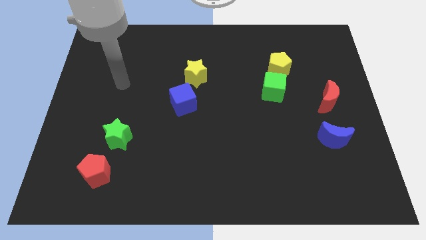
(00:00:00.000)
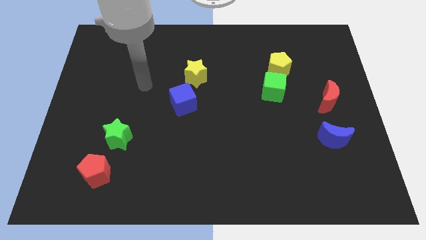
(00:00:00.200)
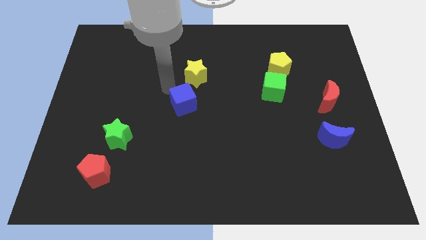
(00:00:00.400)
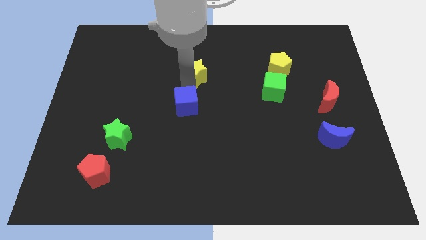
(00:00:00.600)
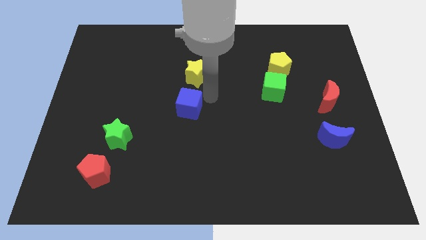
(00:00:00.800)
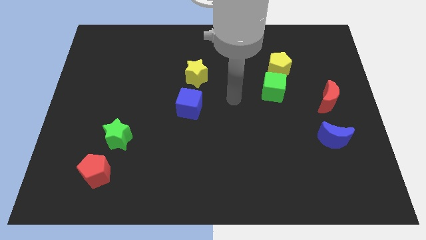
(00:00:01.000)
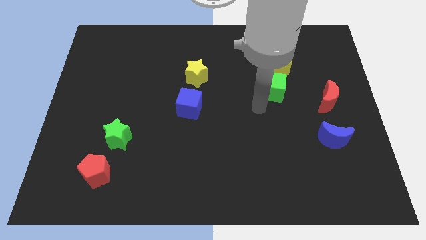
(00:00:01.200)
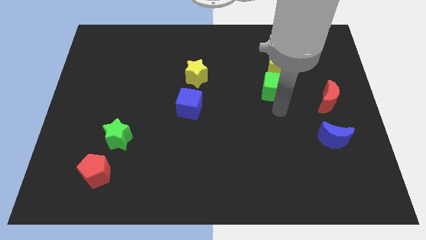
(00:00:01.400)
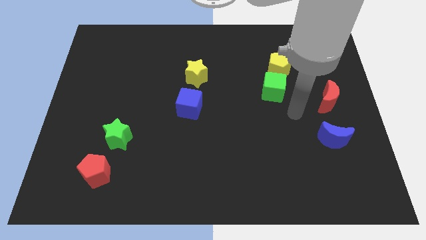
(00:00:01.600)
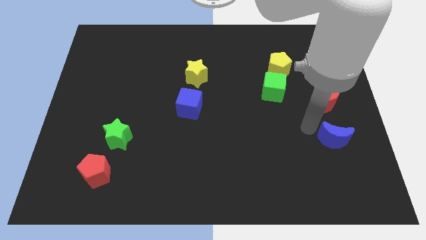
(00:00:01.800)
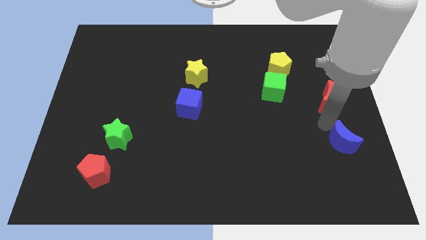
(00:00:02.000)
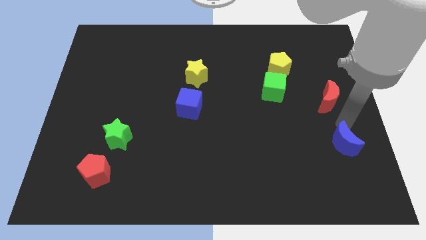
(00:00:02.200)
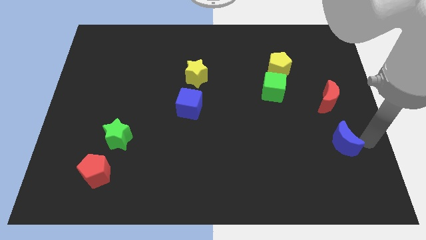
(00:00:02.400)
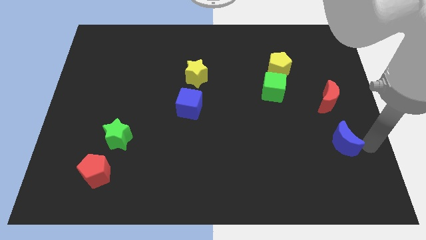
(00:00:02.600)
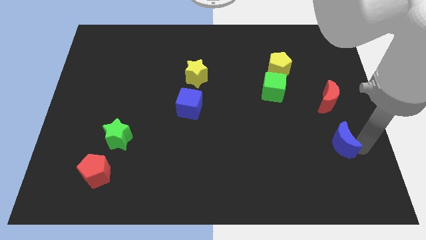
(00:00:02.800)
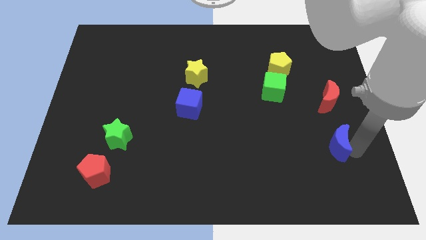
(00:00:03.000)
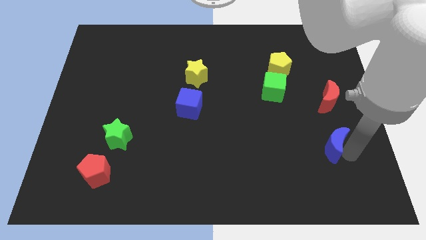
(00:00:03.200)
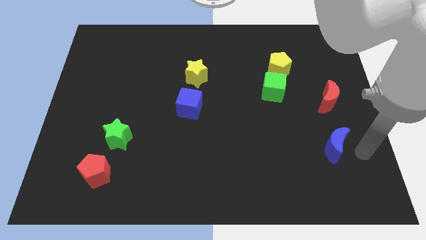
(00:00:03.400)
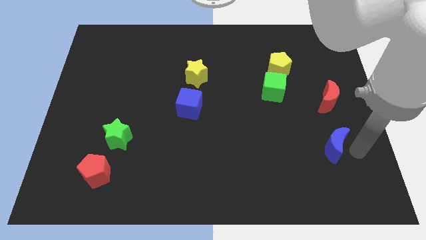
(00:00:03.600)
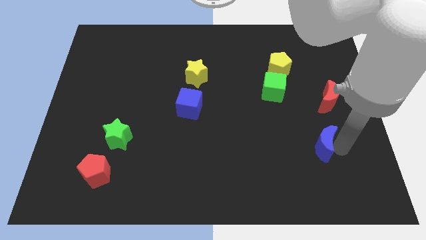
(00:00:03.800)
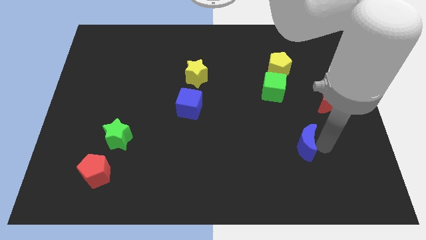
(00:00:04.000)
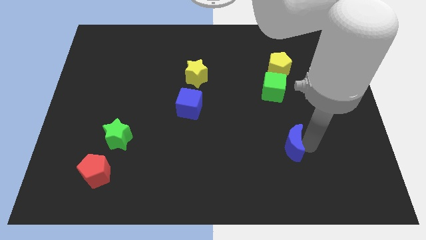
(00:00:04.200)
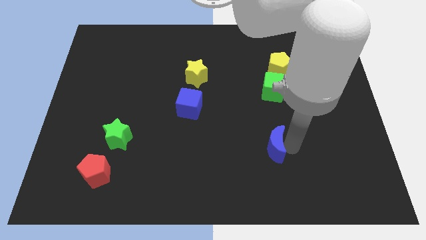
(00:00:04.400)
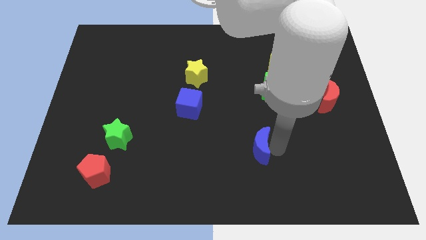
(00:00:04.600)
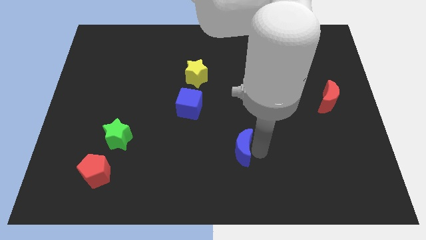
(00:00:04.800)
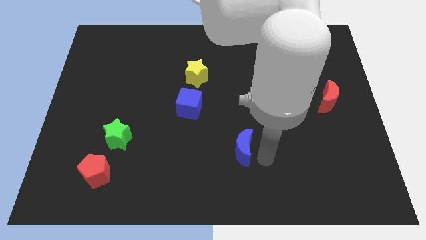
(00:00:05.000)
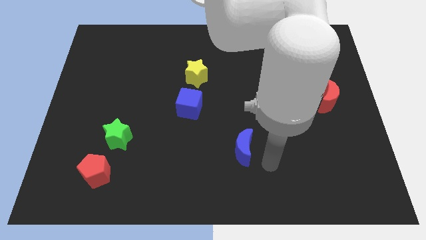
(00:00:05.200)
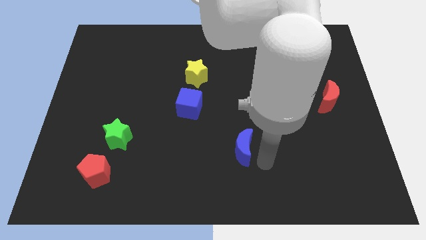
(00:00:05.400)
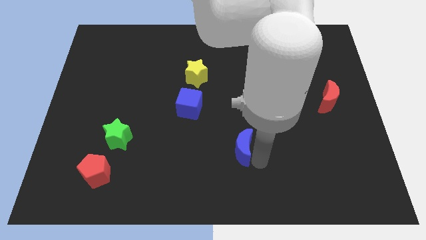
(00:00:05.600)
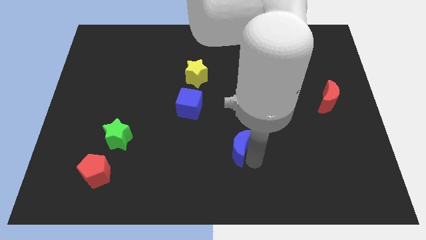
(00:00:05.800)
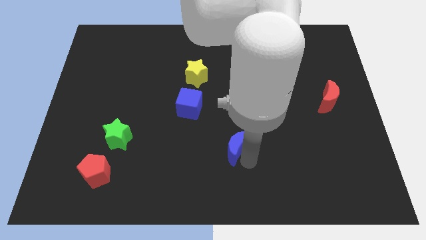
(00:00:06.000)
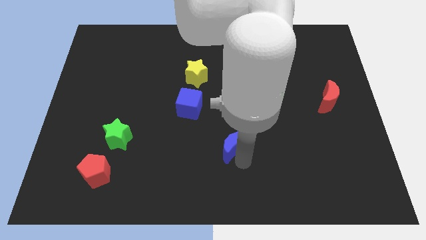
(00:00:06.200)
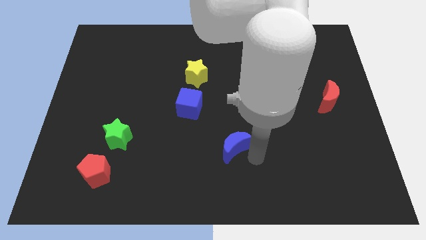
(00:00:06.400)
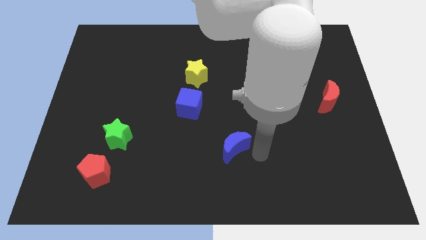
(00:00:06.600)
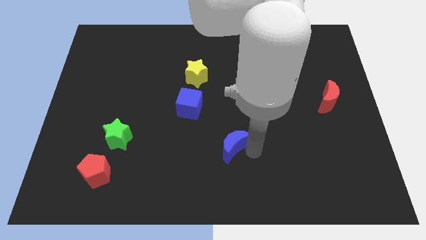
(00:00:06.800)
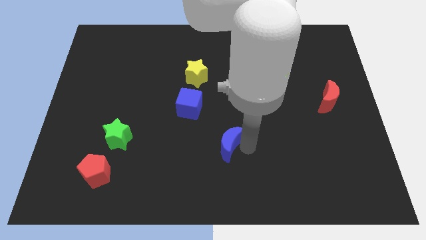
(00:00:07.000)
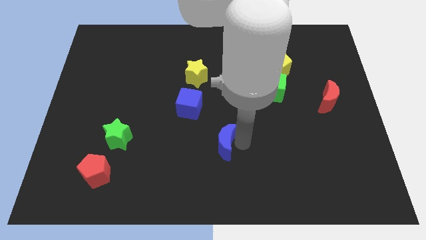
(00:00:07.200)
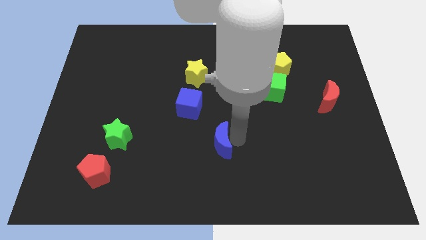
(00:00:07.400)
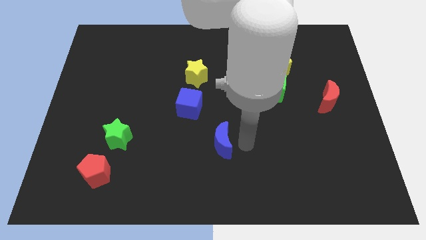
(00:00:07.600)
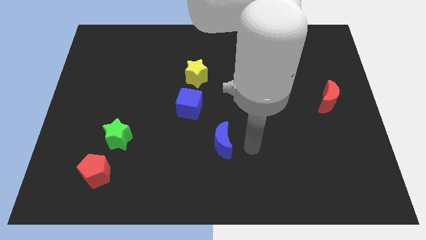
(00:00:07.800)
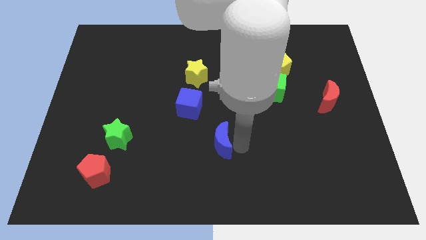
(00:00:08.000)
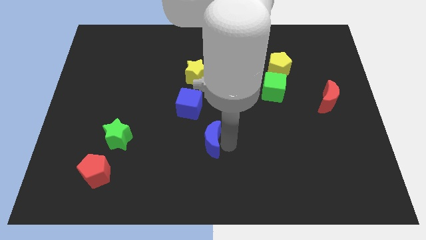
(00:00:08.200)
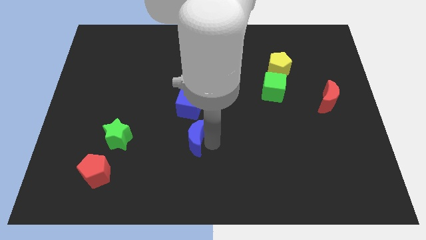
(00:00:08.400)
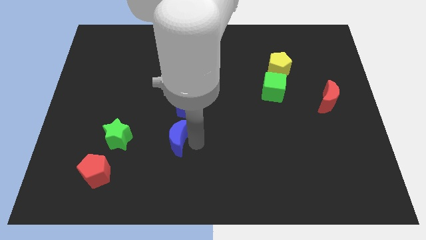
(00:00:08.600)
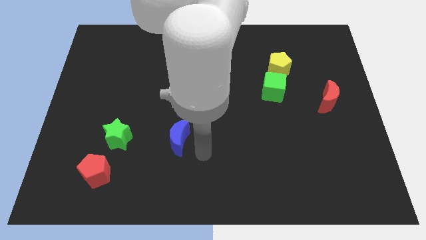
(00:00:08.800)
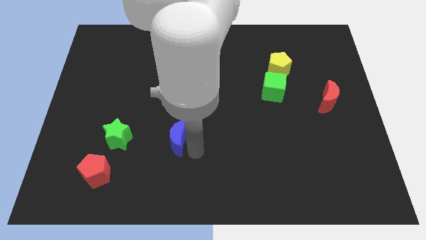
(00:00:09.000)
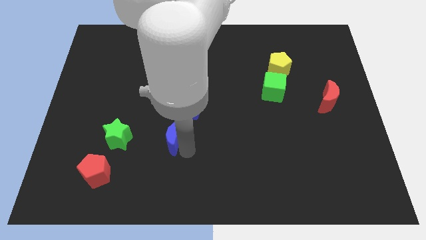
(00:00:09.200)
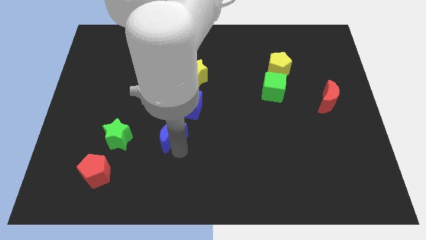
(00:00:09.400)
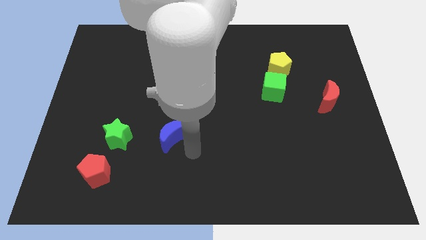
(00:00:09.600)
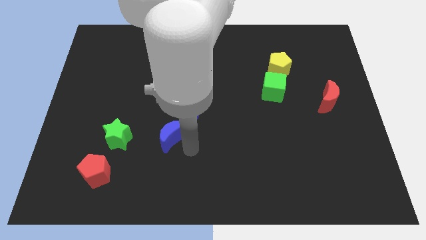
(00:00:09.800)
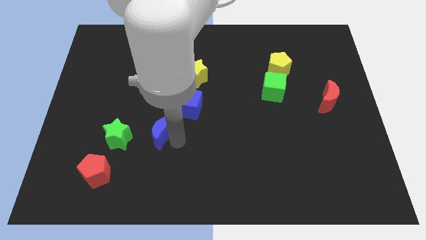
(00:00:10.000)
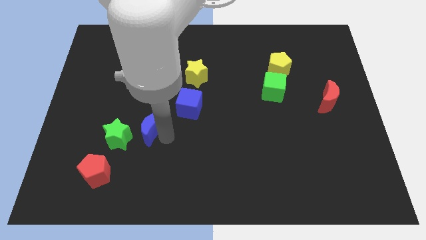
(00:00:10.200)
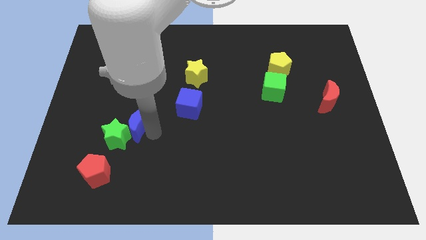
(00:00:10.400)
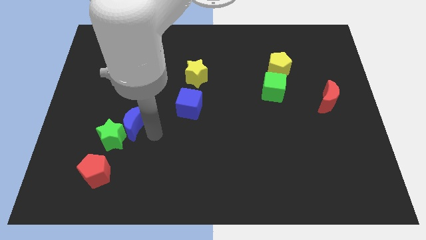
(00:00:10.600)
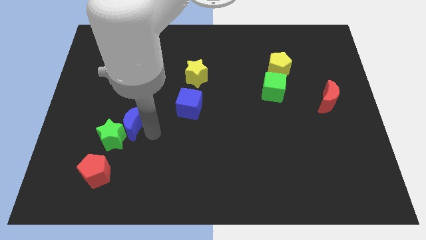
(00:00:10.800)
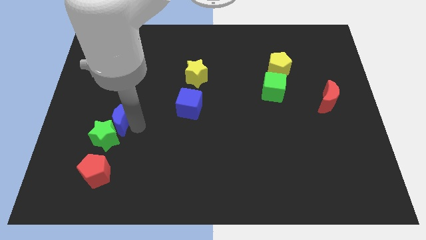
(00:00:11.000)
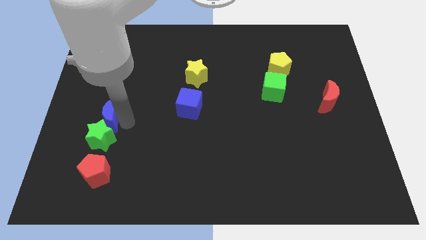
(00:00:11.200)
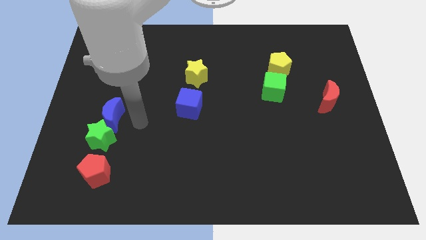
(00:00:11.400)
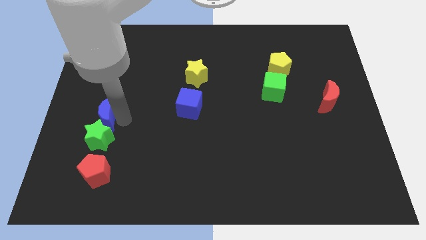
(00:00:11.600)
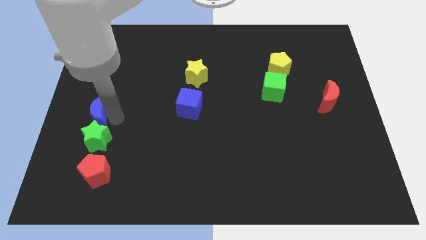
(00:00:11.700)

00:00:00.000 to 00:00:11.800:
slide the blue moon to the center left

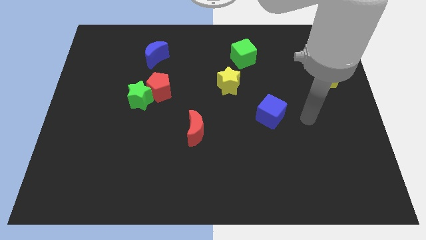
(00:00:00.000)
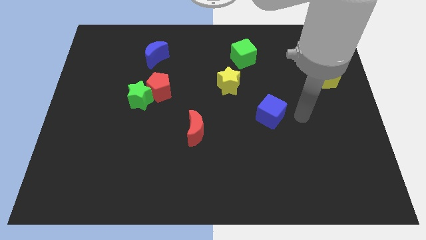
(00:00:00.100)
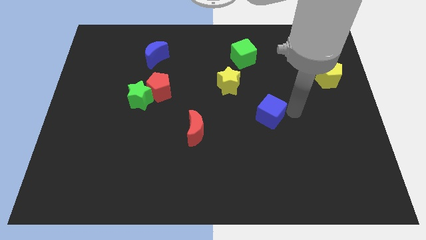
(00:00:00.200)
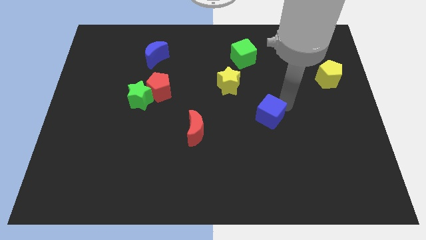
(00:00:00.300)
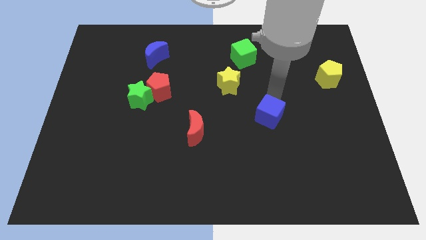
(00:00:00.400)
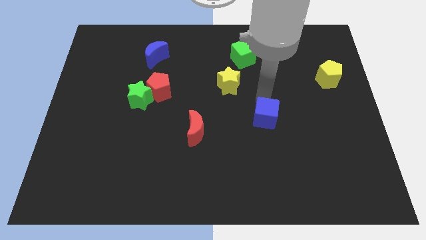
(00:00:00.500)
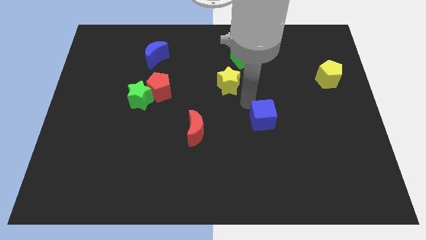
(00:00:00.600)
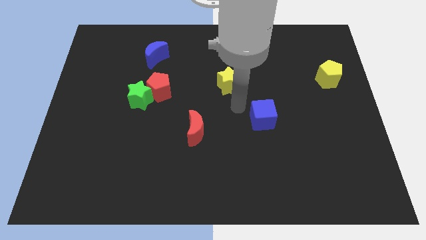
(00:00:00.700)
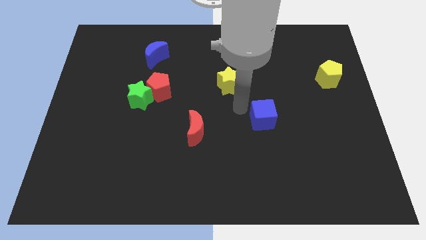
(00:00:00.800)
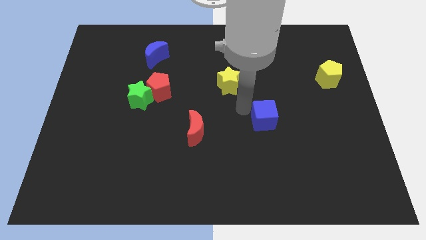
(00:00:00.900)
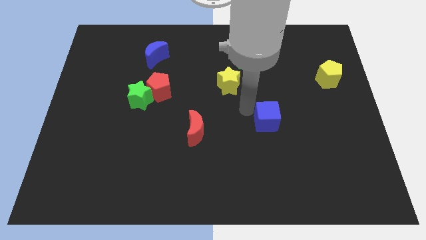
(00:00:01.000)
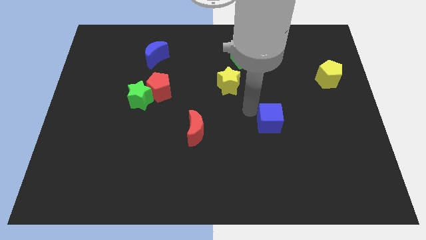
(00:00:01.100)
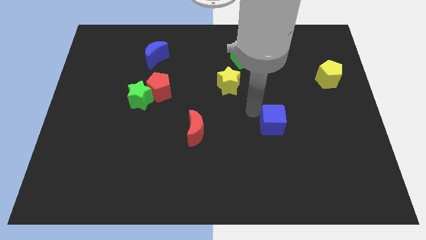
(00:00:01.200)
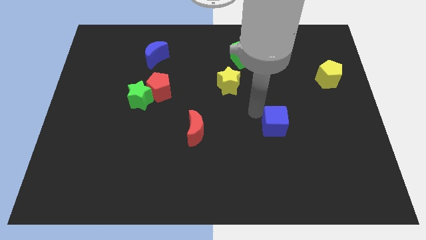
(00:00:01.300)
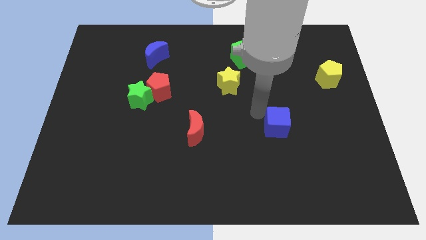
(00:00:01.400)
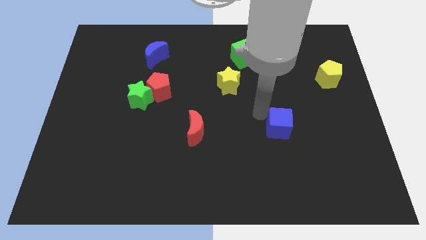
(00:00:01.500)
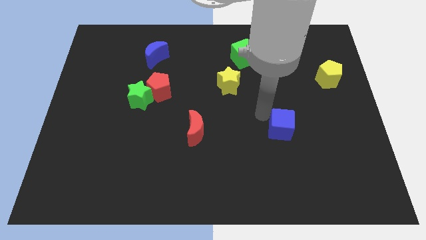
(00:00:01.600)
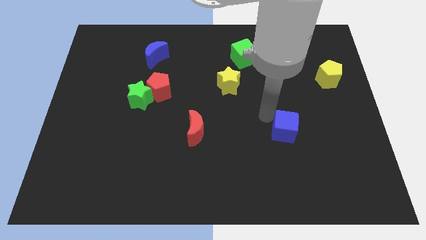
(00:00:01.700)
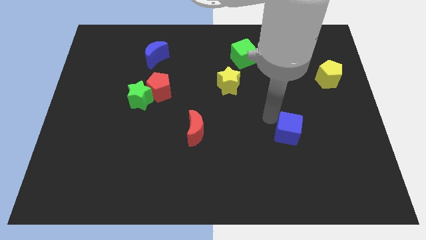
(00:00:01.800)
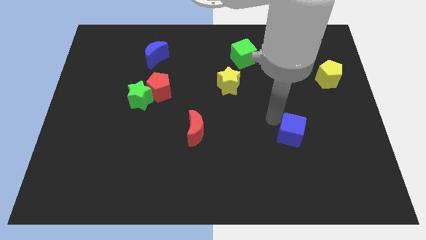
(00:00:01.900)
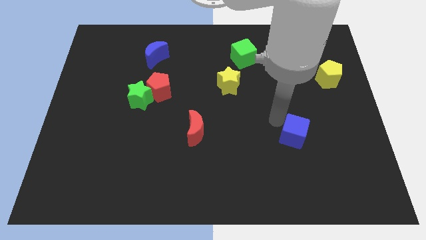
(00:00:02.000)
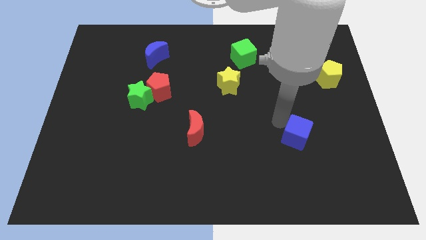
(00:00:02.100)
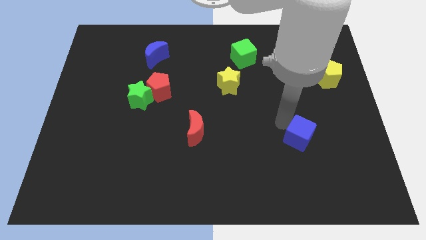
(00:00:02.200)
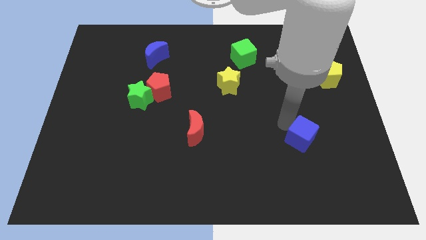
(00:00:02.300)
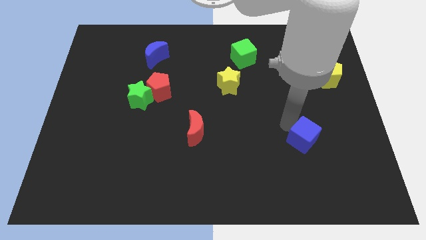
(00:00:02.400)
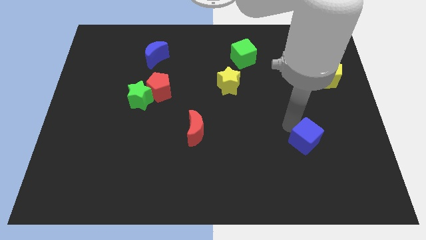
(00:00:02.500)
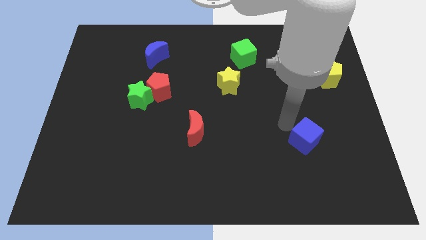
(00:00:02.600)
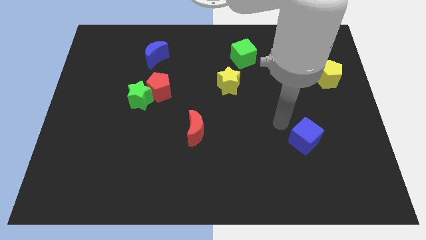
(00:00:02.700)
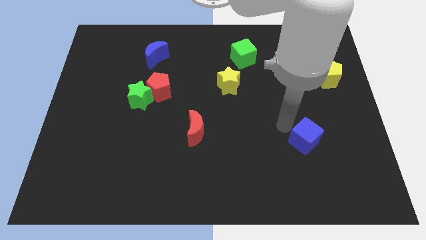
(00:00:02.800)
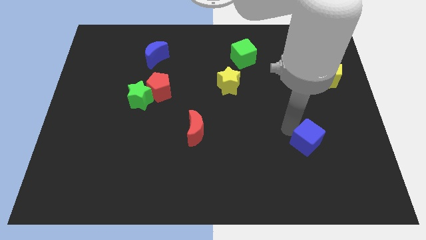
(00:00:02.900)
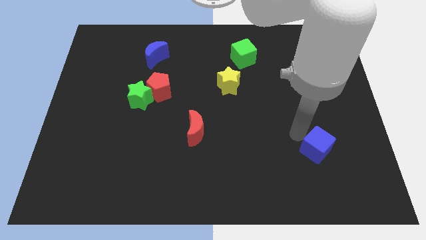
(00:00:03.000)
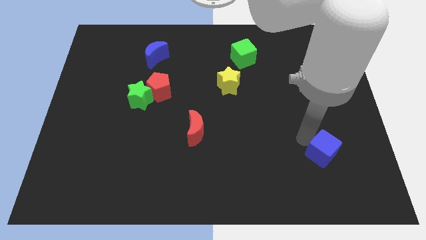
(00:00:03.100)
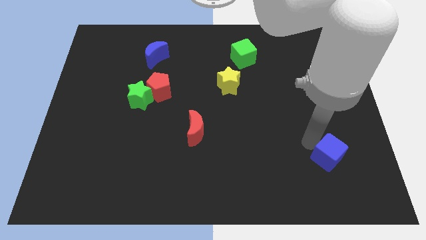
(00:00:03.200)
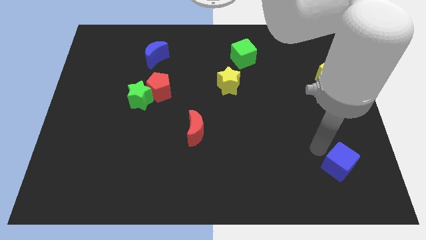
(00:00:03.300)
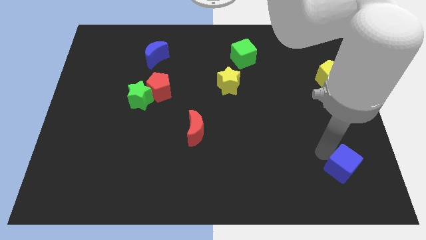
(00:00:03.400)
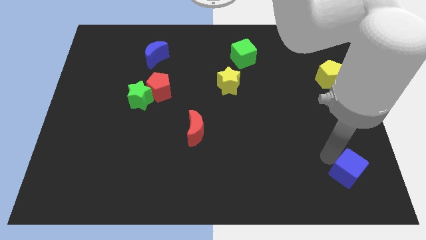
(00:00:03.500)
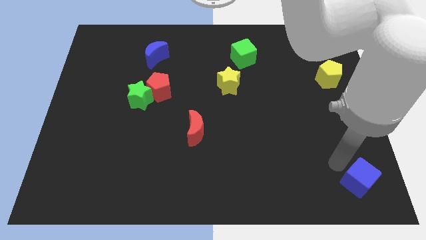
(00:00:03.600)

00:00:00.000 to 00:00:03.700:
move the blue cube to the bottom right corner
